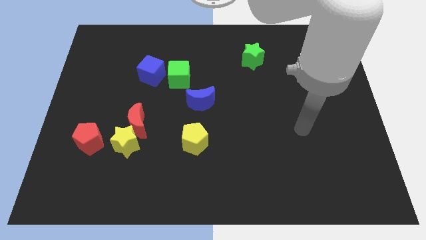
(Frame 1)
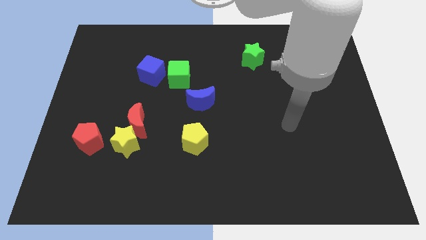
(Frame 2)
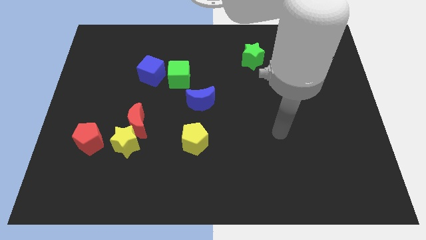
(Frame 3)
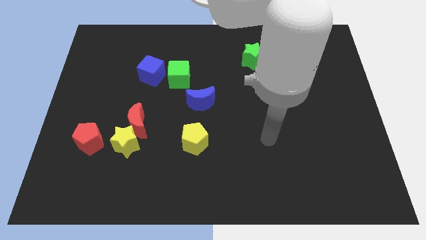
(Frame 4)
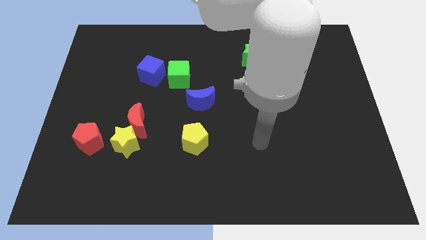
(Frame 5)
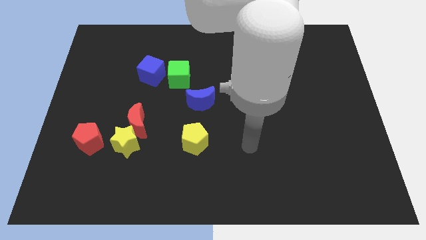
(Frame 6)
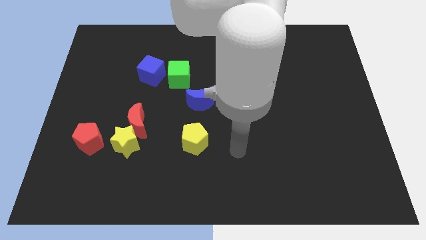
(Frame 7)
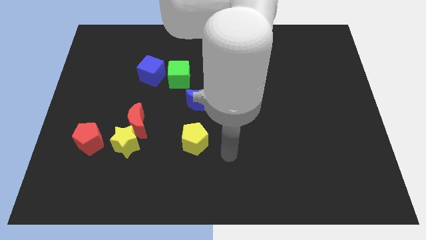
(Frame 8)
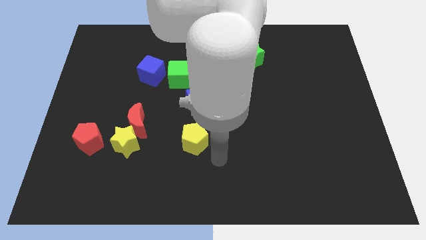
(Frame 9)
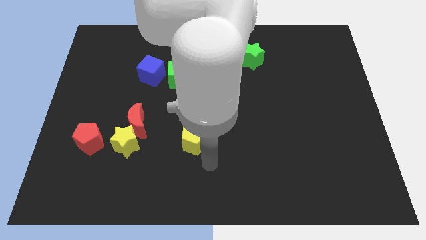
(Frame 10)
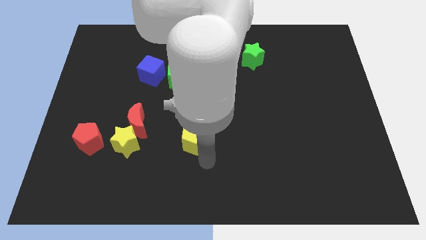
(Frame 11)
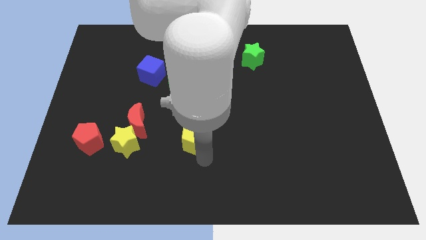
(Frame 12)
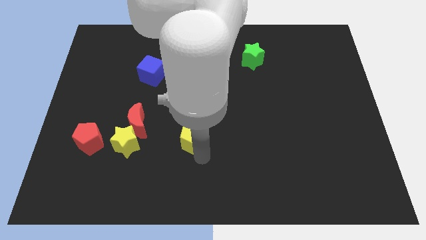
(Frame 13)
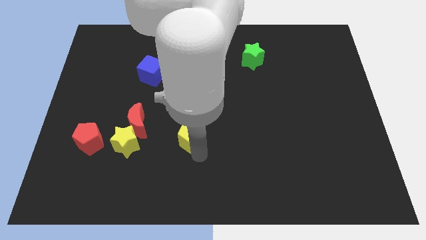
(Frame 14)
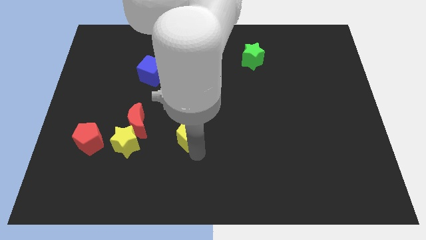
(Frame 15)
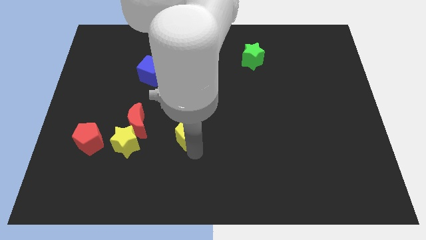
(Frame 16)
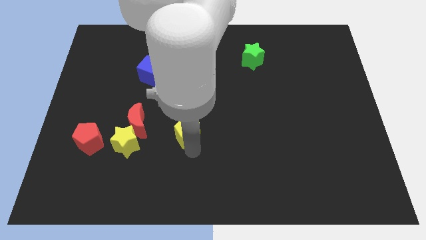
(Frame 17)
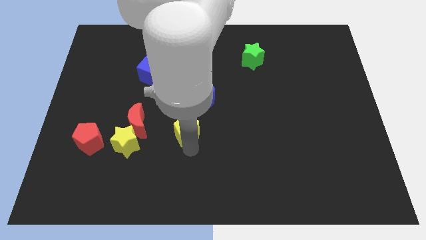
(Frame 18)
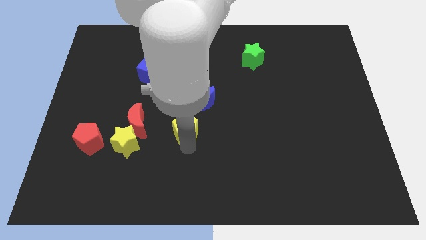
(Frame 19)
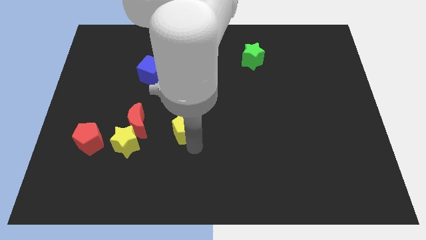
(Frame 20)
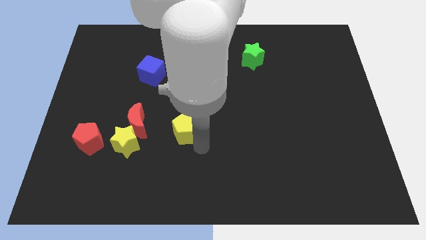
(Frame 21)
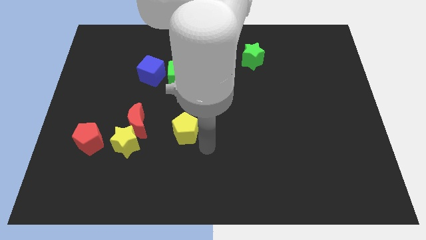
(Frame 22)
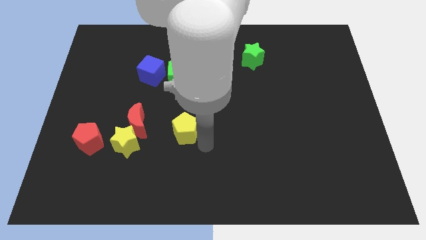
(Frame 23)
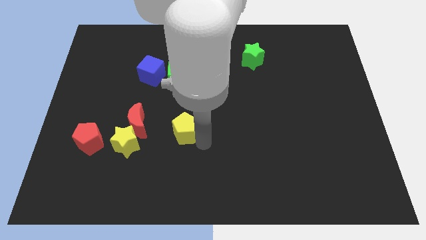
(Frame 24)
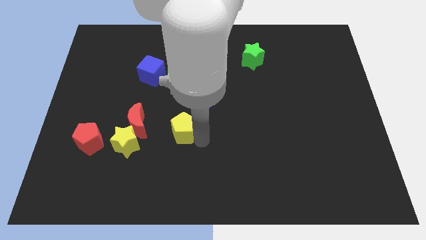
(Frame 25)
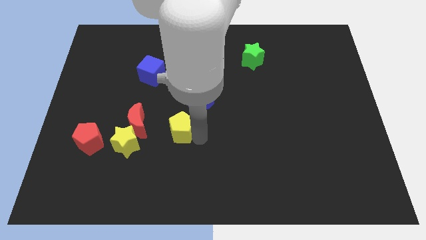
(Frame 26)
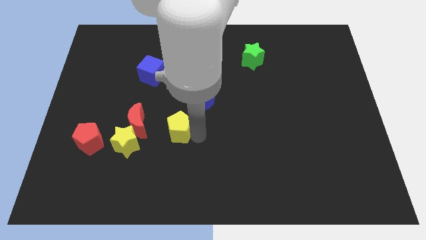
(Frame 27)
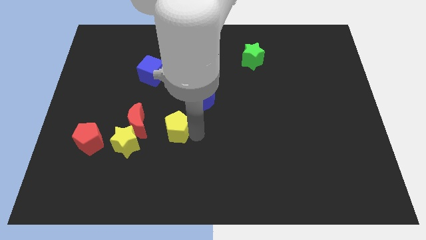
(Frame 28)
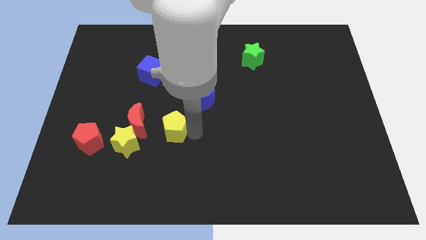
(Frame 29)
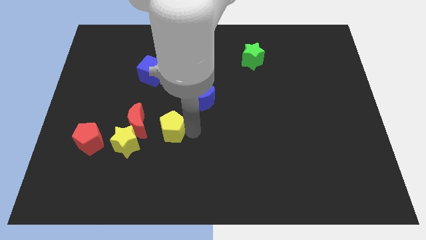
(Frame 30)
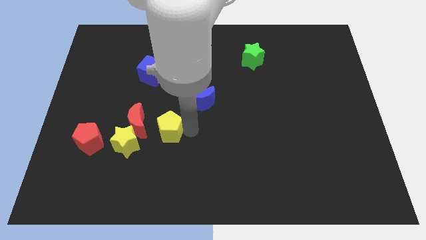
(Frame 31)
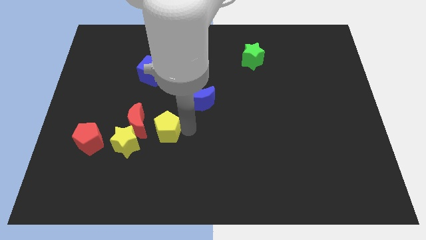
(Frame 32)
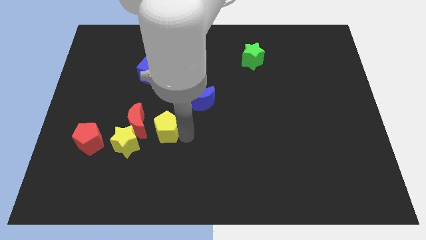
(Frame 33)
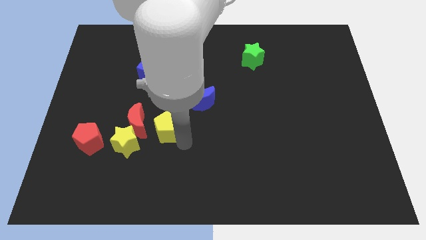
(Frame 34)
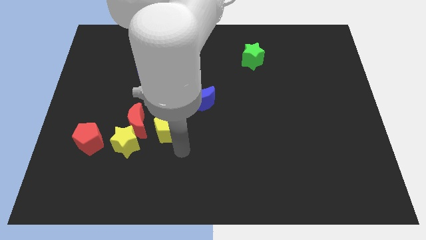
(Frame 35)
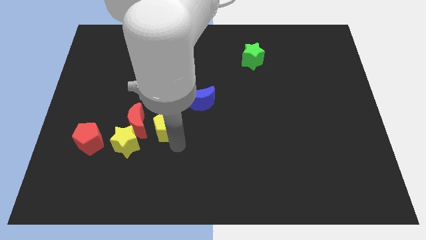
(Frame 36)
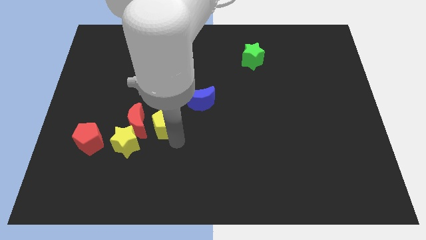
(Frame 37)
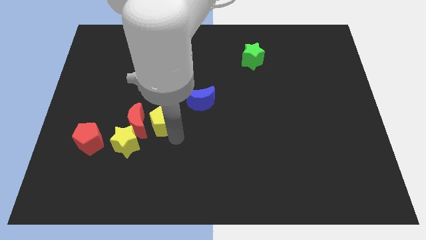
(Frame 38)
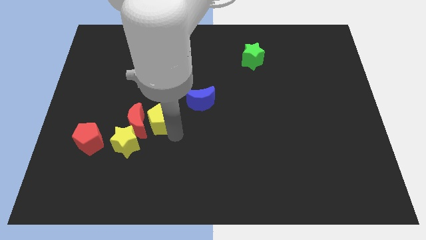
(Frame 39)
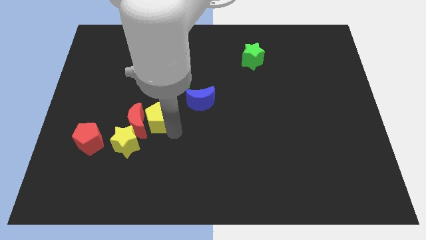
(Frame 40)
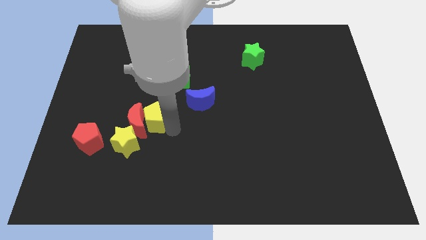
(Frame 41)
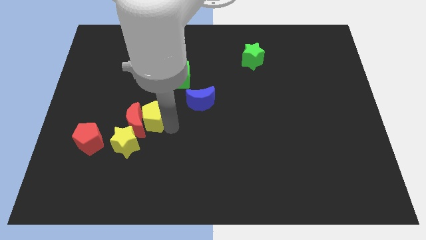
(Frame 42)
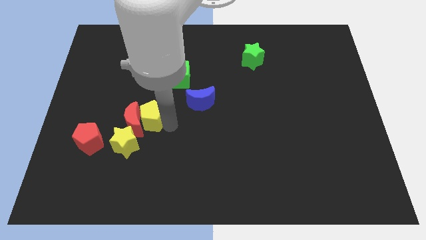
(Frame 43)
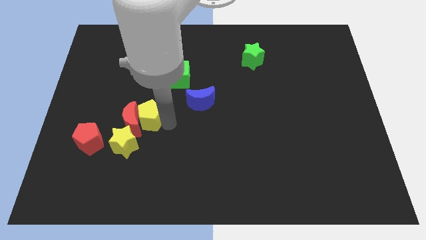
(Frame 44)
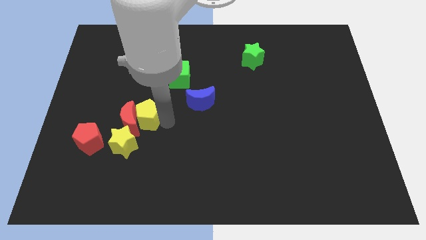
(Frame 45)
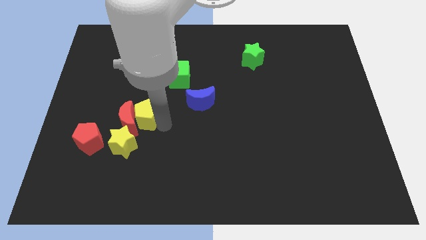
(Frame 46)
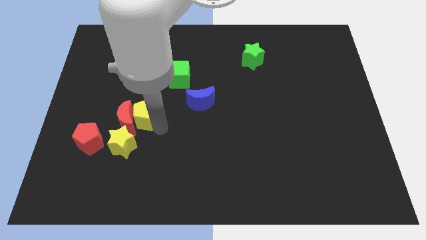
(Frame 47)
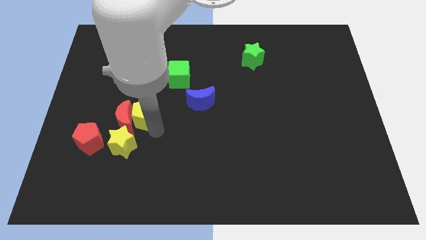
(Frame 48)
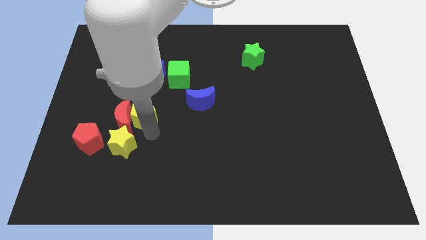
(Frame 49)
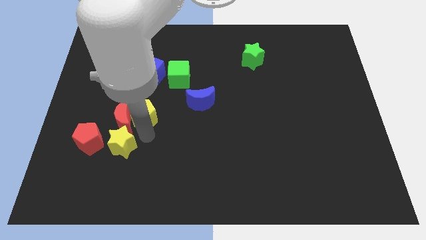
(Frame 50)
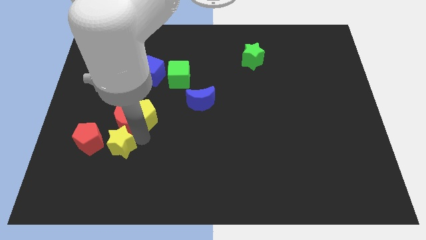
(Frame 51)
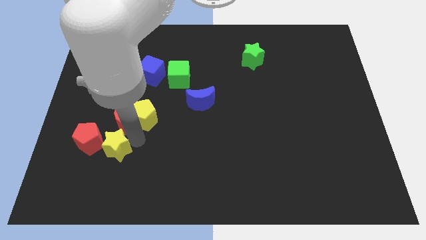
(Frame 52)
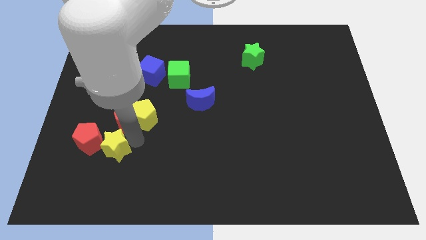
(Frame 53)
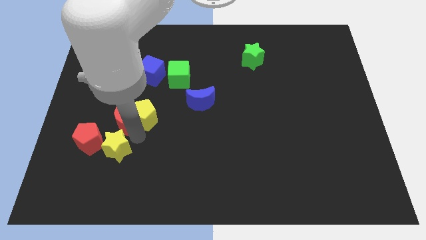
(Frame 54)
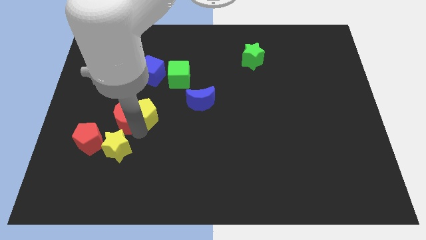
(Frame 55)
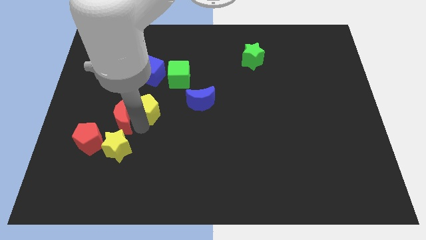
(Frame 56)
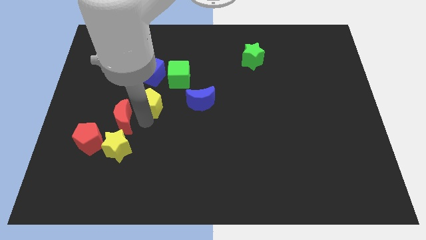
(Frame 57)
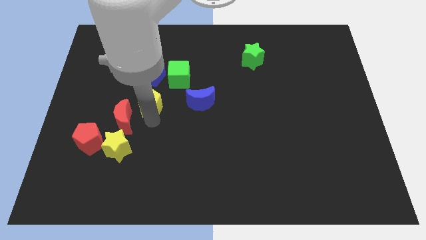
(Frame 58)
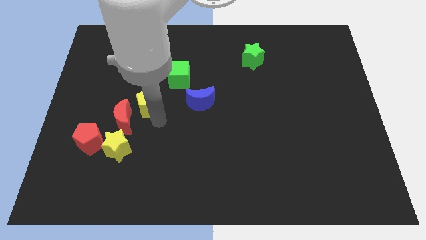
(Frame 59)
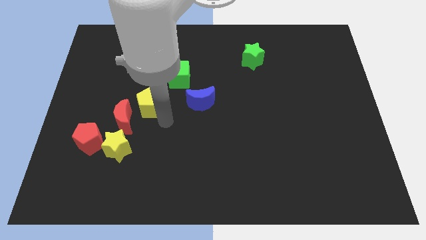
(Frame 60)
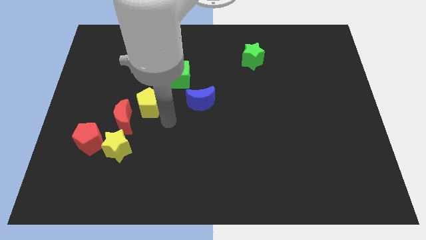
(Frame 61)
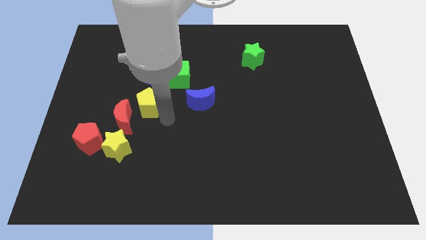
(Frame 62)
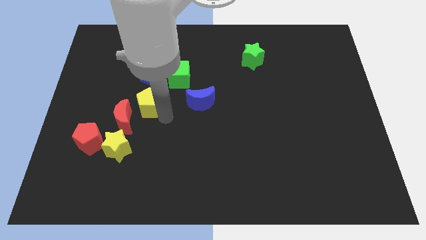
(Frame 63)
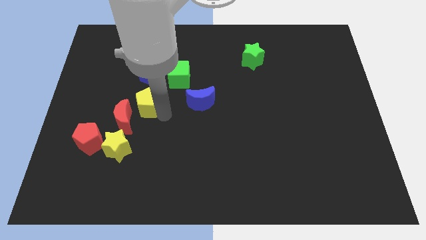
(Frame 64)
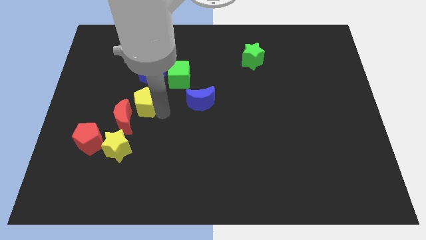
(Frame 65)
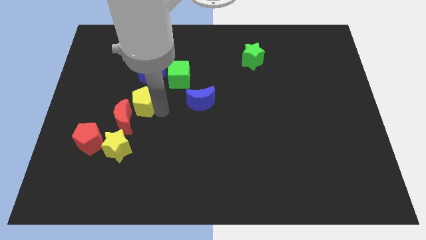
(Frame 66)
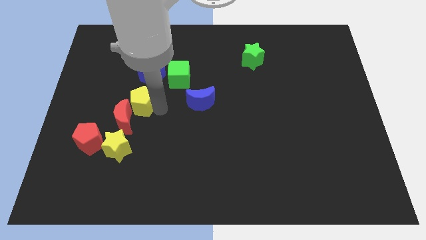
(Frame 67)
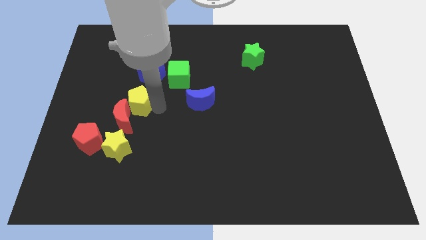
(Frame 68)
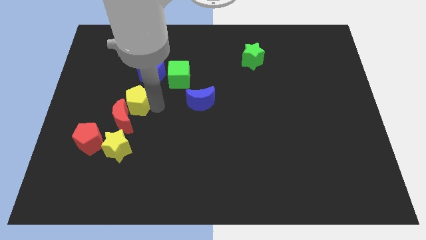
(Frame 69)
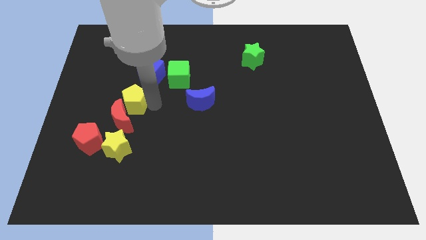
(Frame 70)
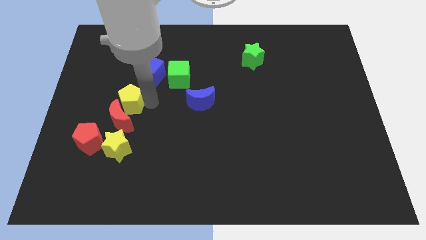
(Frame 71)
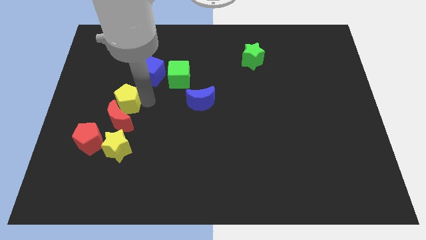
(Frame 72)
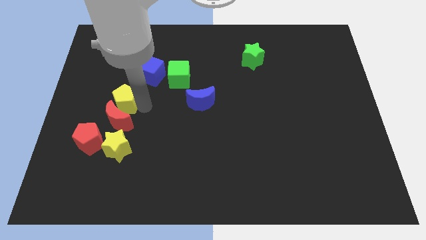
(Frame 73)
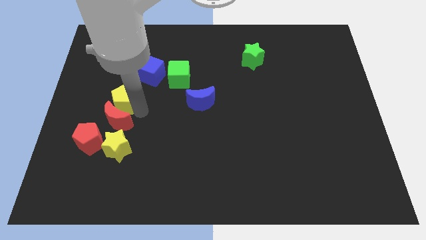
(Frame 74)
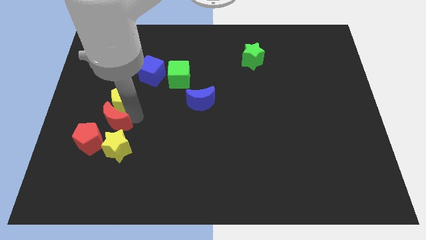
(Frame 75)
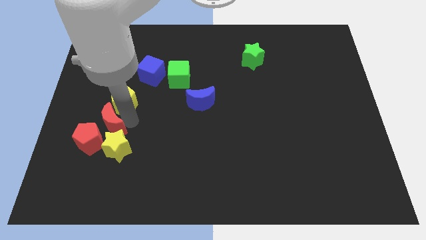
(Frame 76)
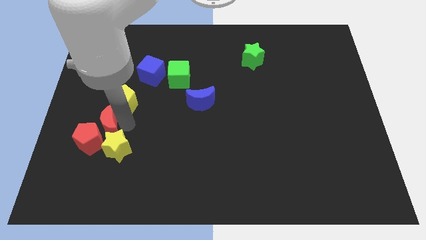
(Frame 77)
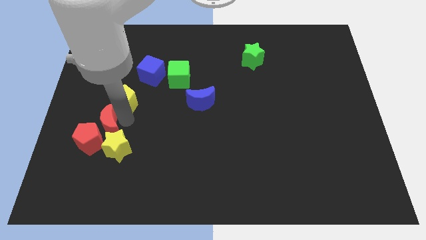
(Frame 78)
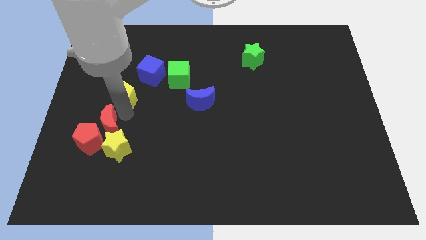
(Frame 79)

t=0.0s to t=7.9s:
slide the yellow pentagon upwards and then left

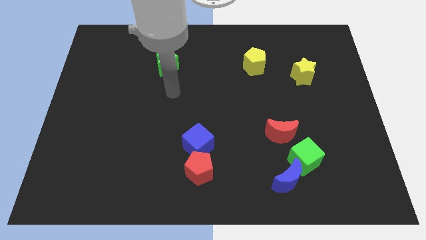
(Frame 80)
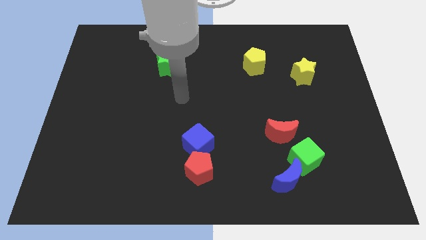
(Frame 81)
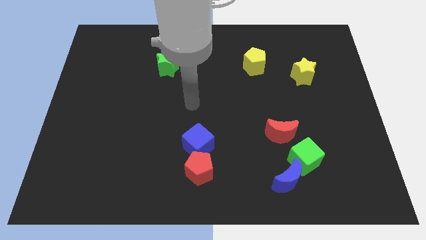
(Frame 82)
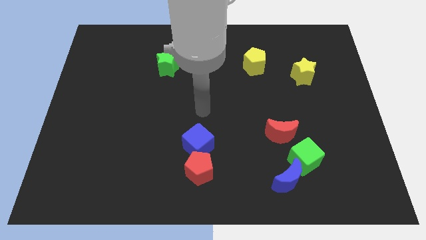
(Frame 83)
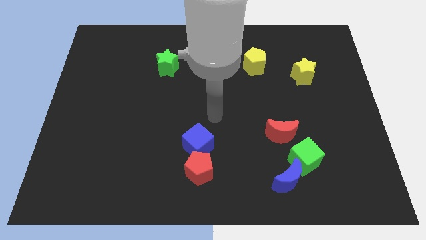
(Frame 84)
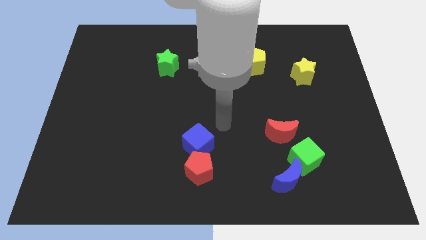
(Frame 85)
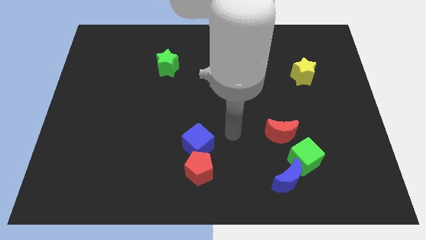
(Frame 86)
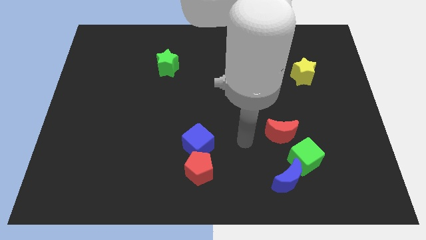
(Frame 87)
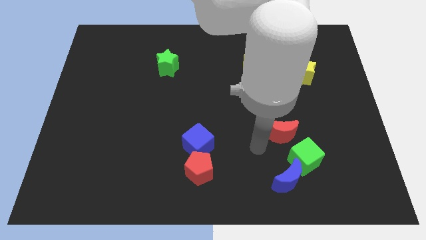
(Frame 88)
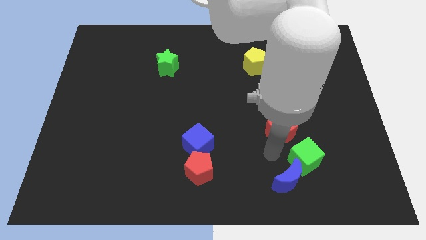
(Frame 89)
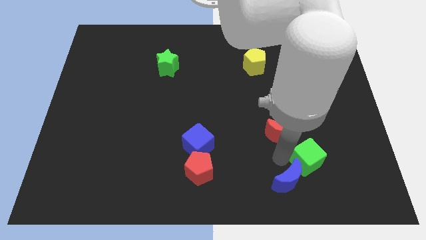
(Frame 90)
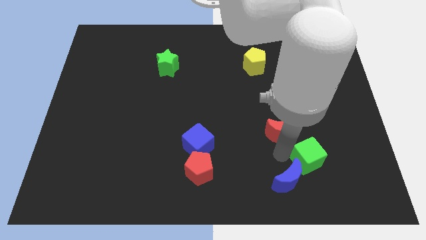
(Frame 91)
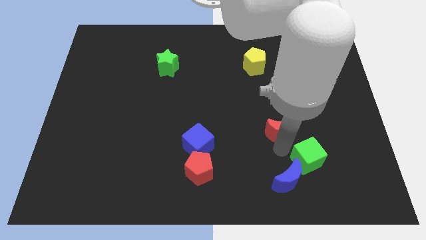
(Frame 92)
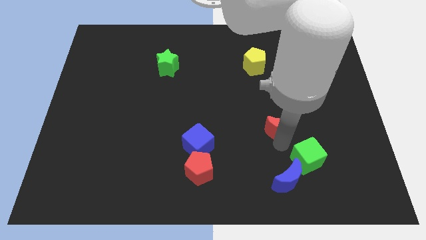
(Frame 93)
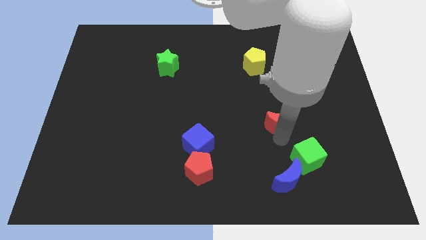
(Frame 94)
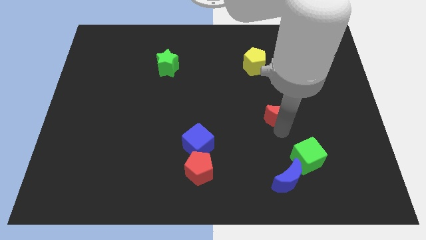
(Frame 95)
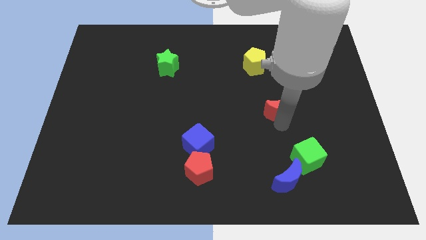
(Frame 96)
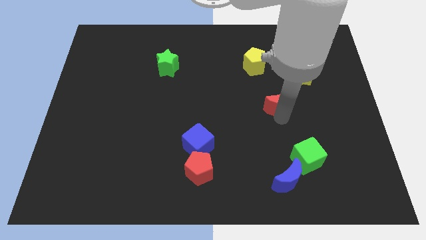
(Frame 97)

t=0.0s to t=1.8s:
slide the red moon up a little
